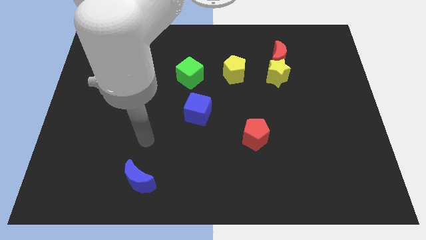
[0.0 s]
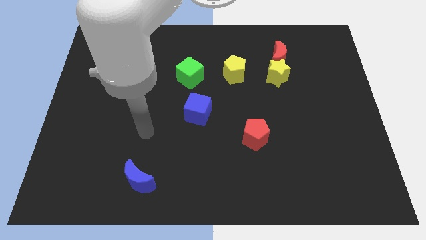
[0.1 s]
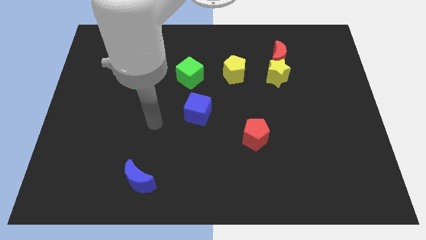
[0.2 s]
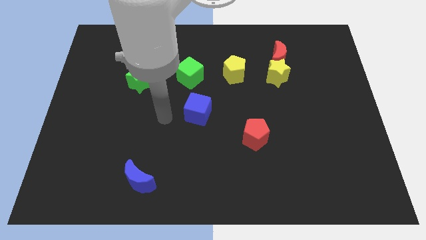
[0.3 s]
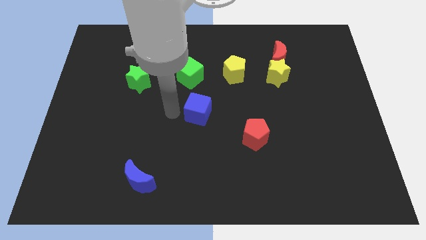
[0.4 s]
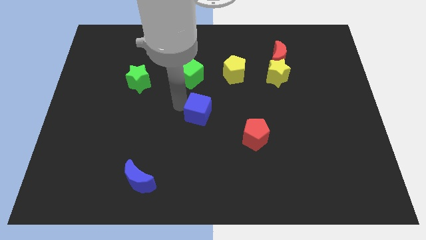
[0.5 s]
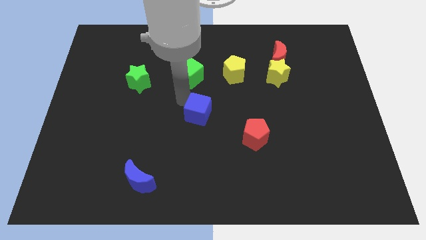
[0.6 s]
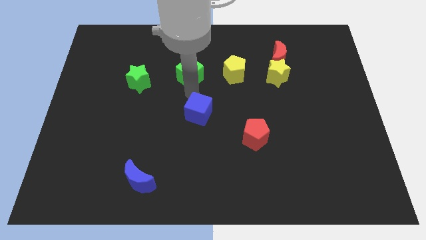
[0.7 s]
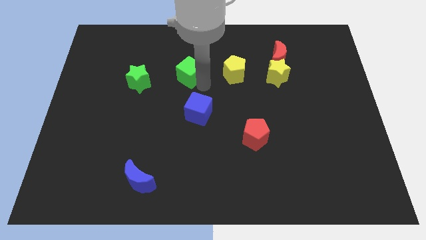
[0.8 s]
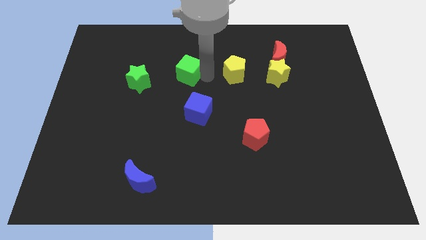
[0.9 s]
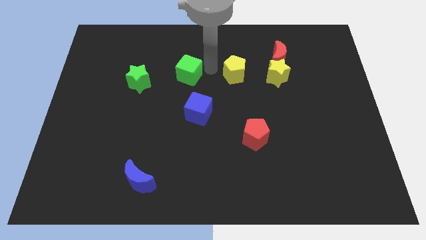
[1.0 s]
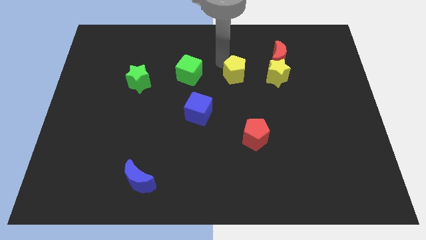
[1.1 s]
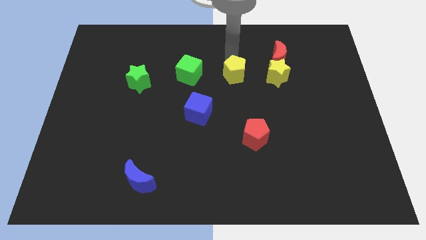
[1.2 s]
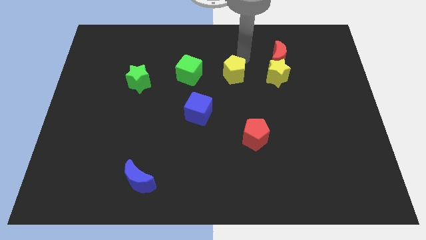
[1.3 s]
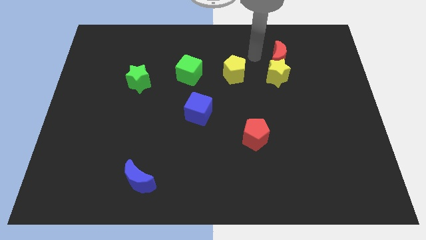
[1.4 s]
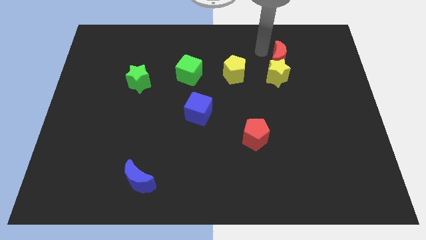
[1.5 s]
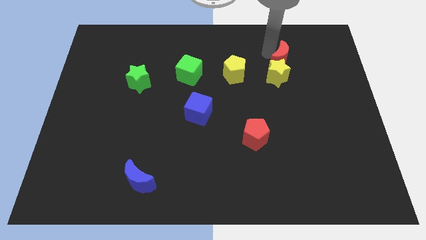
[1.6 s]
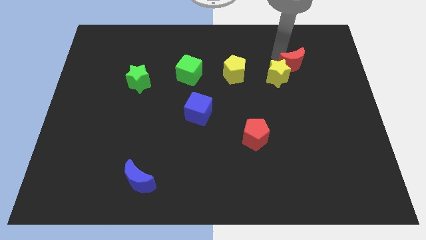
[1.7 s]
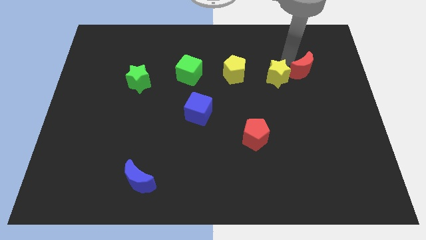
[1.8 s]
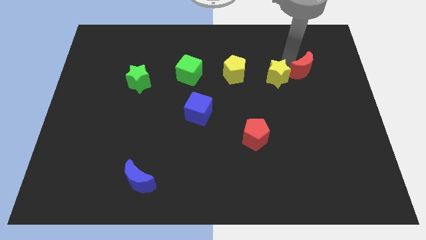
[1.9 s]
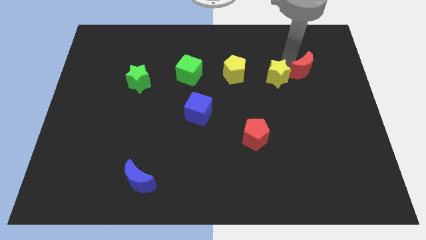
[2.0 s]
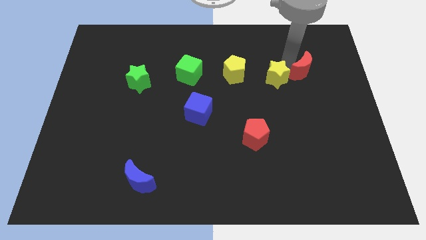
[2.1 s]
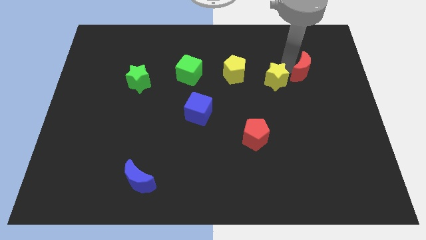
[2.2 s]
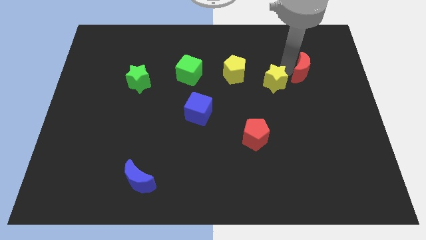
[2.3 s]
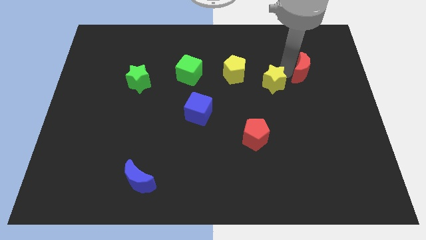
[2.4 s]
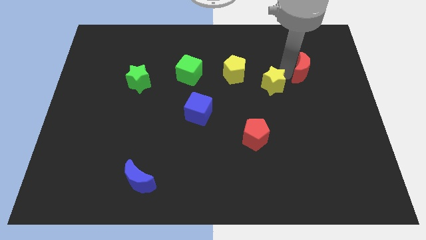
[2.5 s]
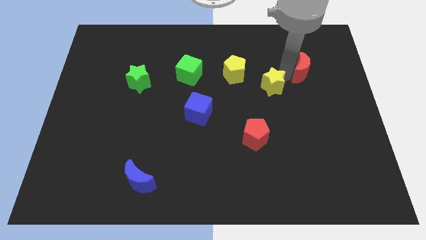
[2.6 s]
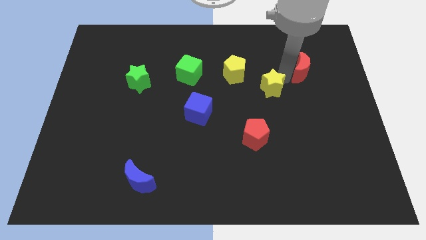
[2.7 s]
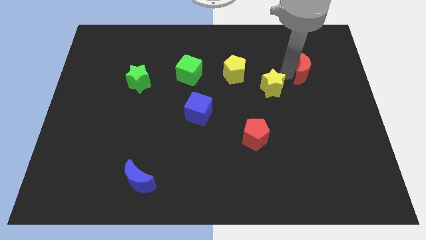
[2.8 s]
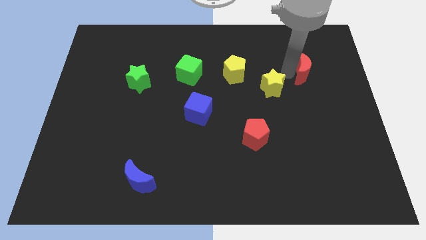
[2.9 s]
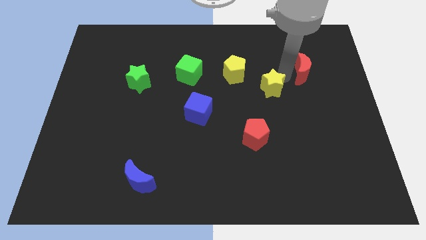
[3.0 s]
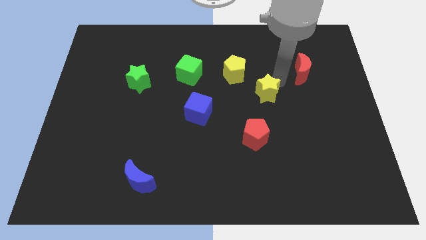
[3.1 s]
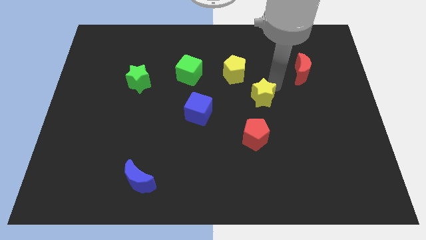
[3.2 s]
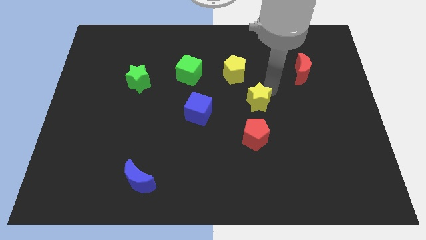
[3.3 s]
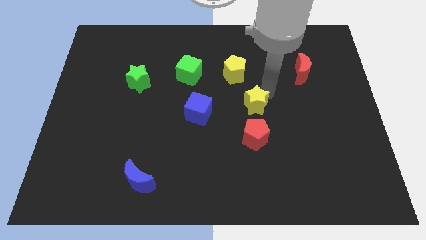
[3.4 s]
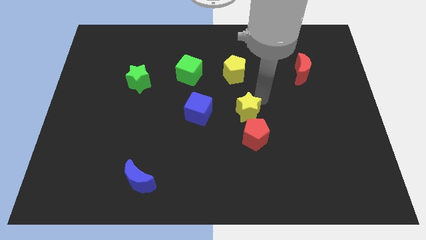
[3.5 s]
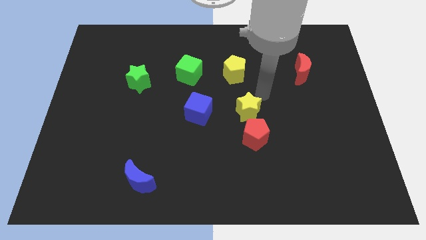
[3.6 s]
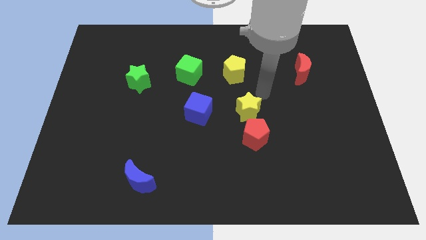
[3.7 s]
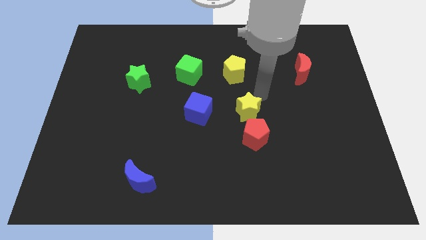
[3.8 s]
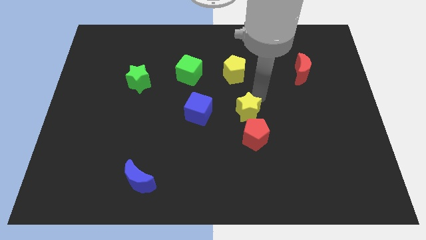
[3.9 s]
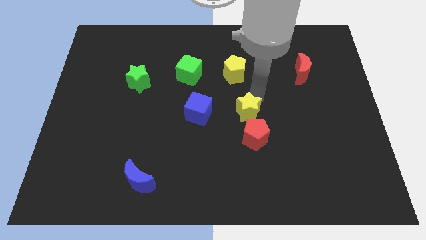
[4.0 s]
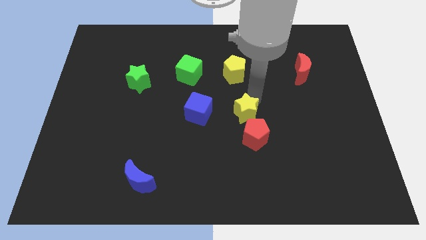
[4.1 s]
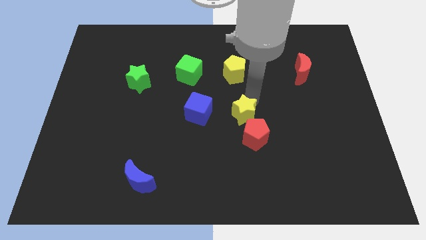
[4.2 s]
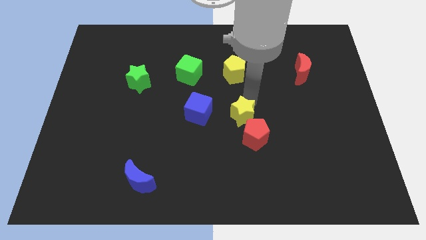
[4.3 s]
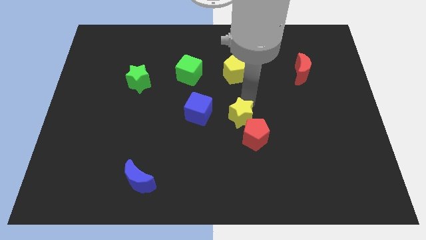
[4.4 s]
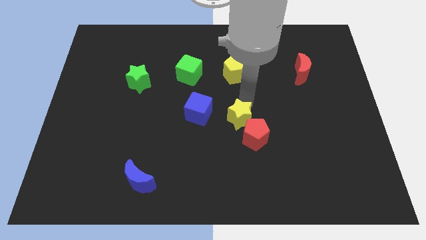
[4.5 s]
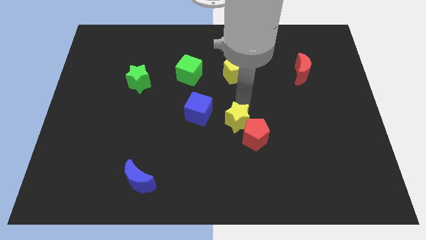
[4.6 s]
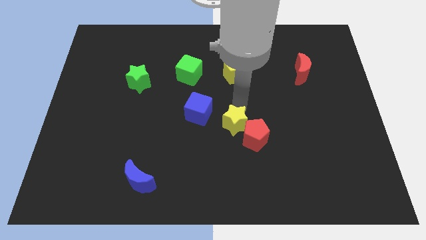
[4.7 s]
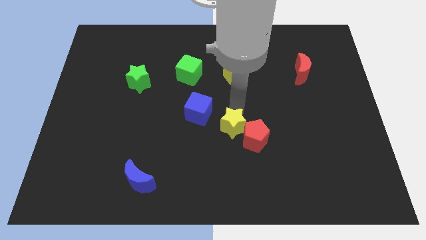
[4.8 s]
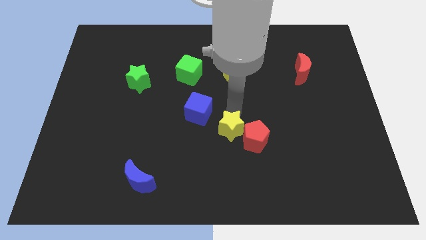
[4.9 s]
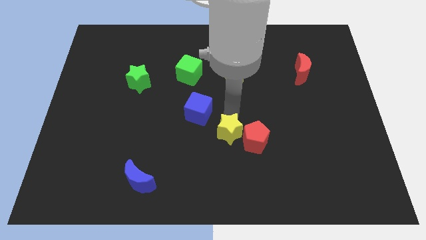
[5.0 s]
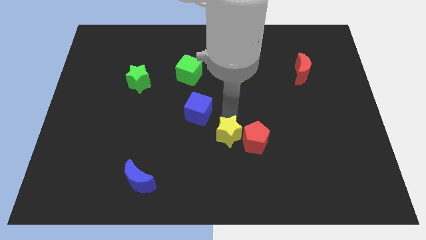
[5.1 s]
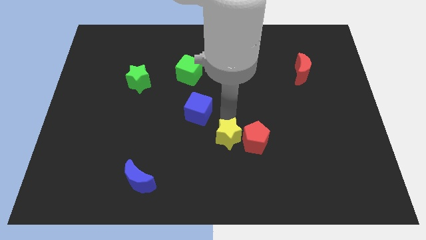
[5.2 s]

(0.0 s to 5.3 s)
slide the yellow star to the bottom left side of the red pentagon

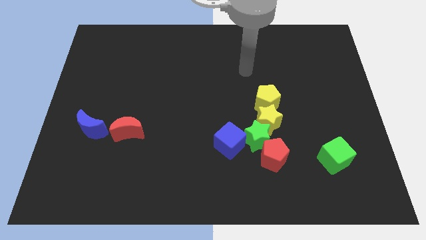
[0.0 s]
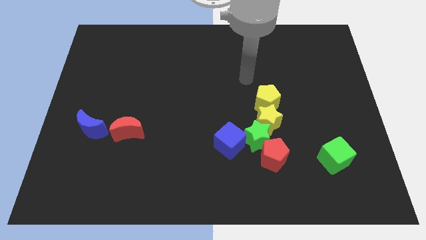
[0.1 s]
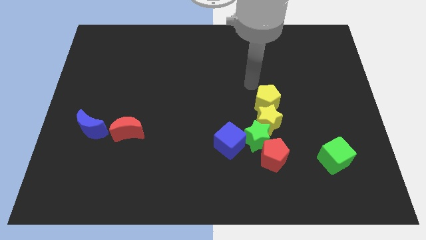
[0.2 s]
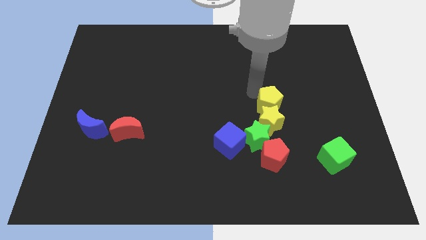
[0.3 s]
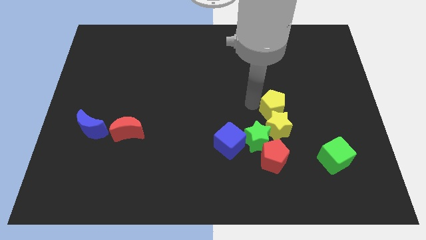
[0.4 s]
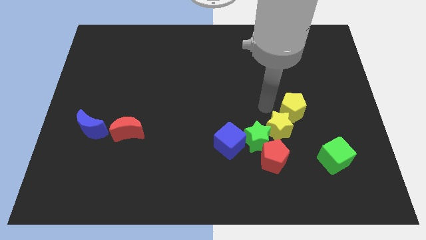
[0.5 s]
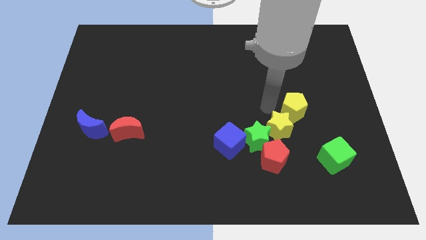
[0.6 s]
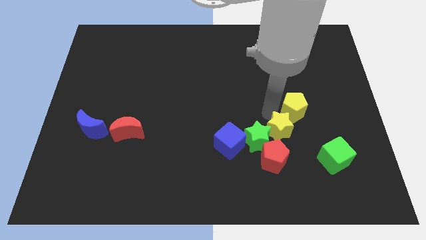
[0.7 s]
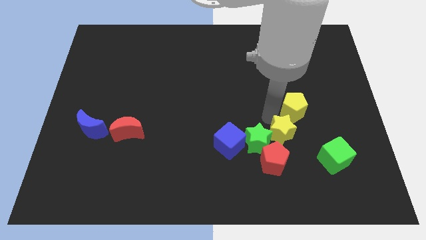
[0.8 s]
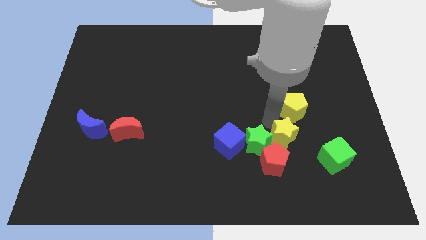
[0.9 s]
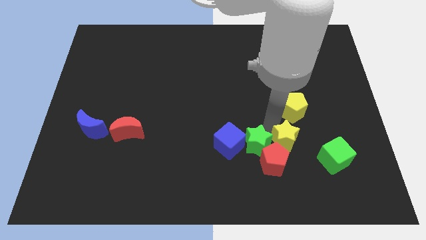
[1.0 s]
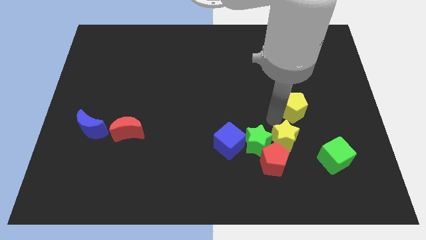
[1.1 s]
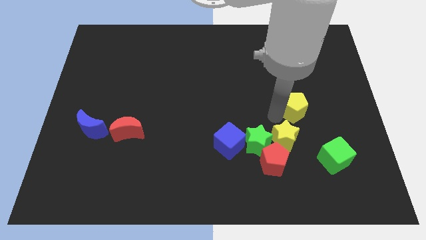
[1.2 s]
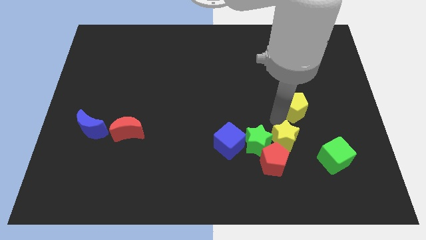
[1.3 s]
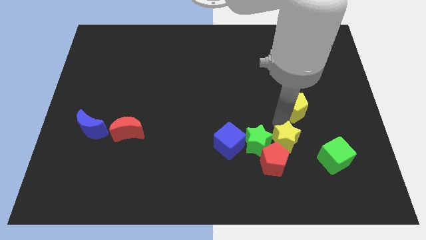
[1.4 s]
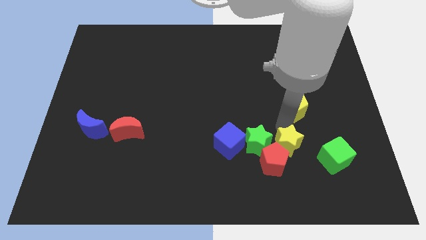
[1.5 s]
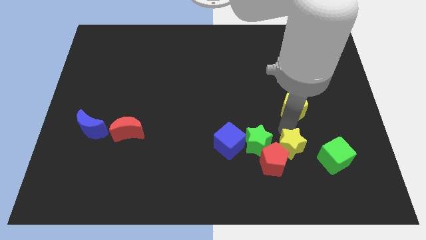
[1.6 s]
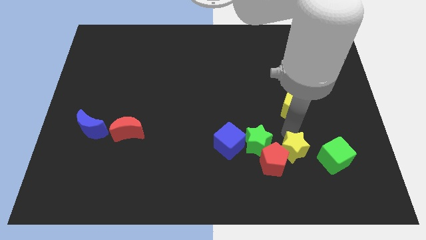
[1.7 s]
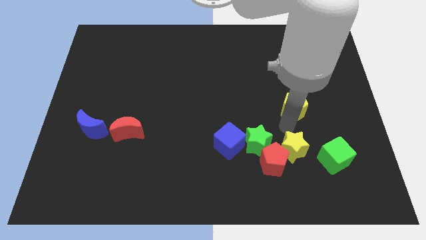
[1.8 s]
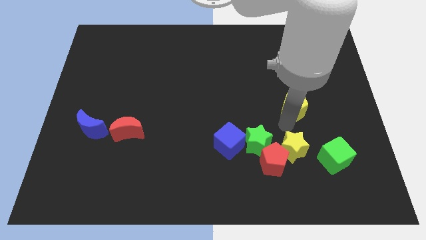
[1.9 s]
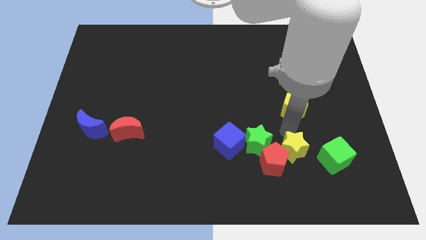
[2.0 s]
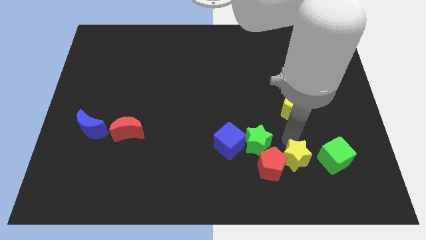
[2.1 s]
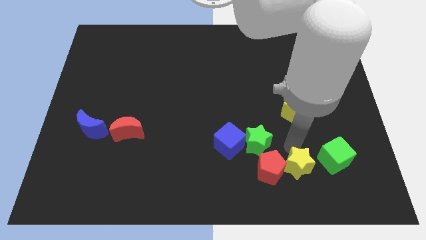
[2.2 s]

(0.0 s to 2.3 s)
move the yellow star to the bottom right of the red pentagon
